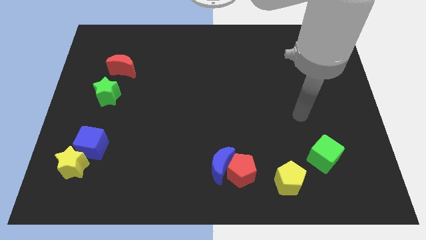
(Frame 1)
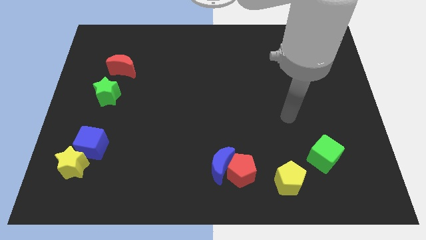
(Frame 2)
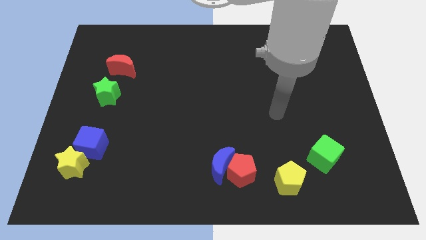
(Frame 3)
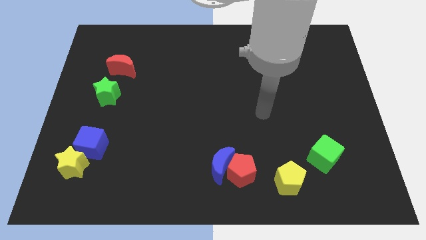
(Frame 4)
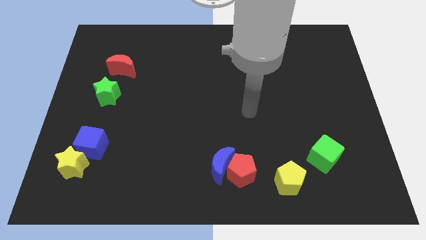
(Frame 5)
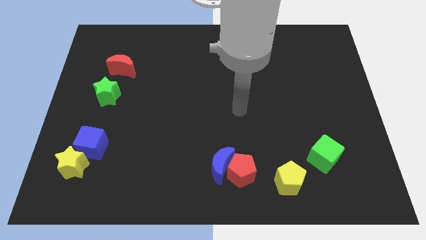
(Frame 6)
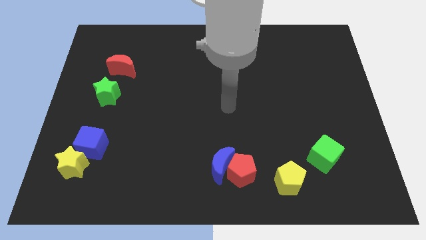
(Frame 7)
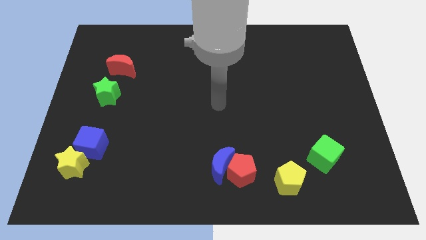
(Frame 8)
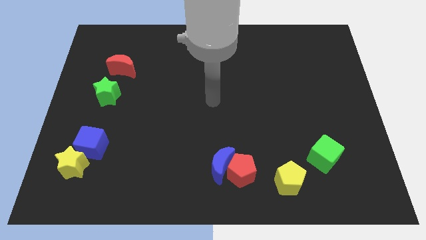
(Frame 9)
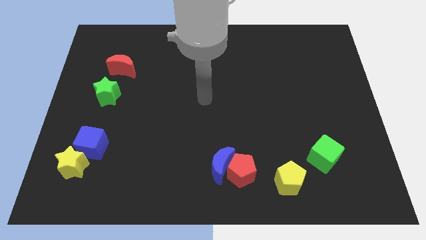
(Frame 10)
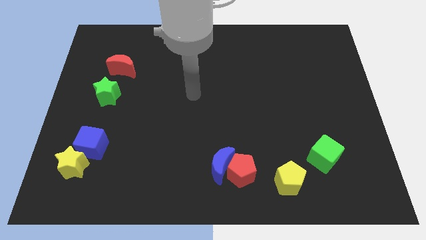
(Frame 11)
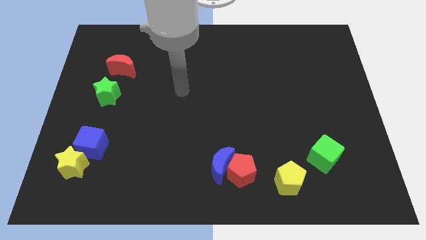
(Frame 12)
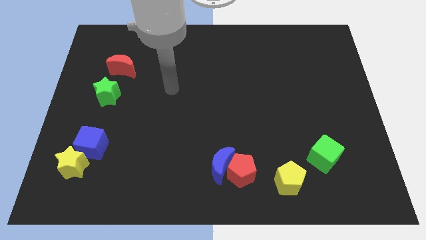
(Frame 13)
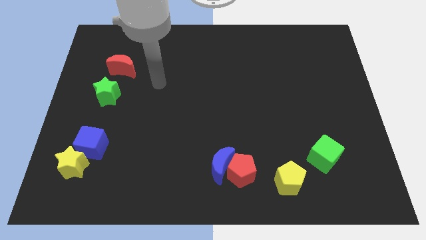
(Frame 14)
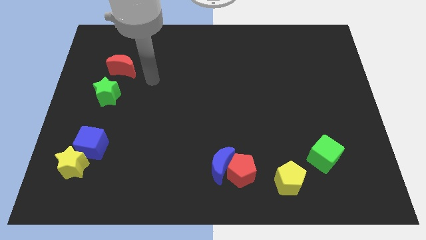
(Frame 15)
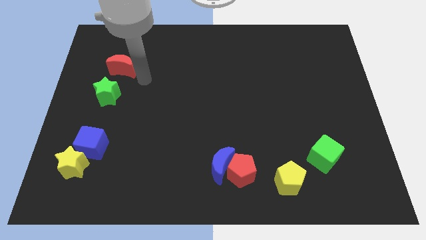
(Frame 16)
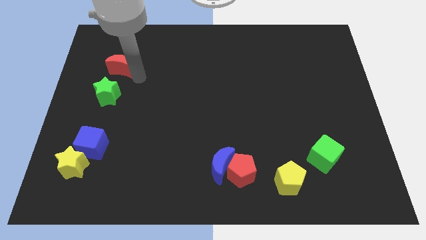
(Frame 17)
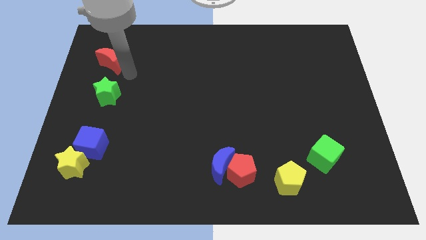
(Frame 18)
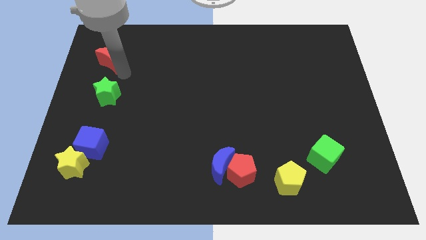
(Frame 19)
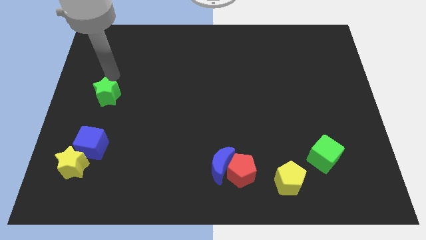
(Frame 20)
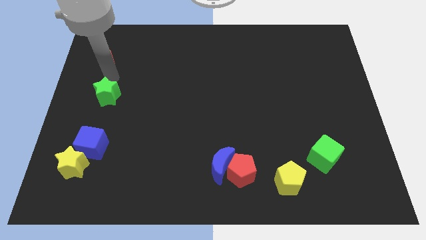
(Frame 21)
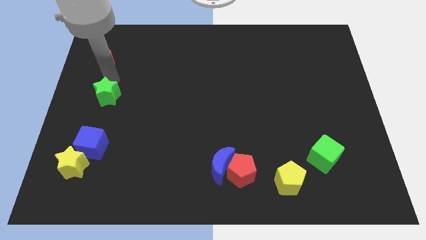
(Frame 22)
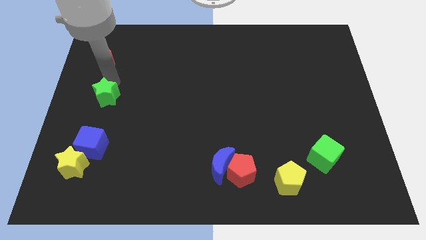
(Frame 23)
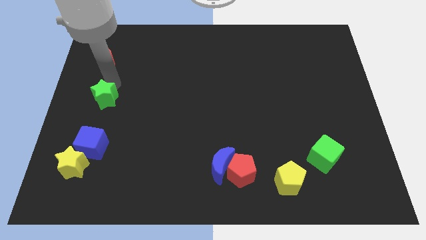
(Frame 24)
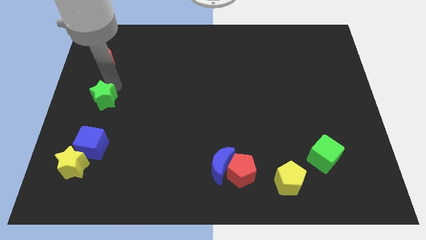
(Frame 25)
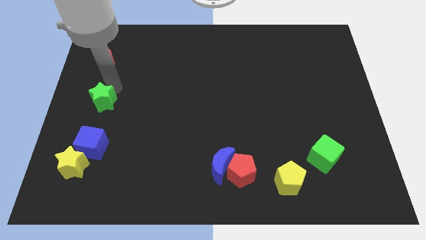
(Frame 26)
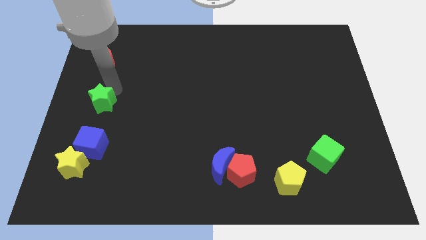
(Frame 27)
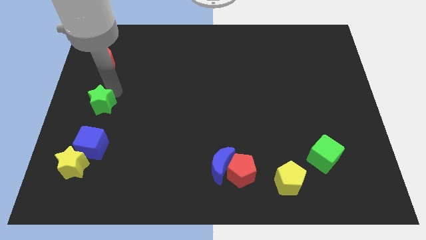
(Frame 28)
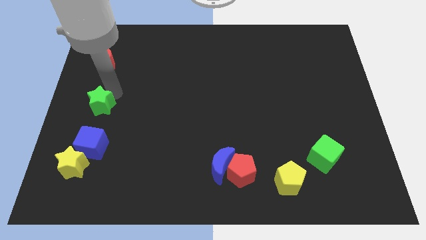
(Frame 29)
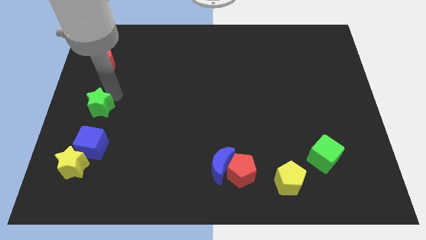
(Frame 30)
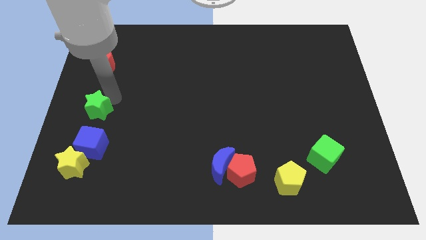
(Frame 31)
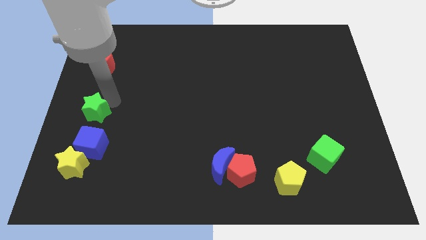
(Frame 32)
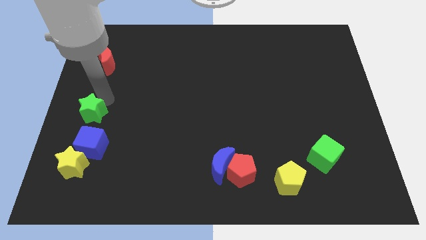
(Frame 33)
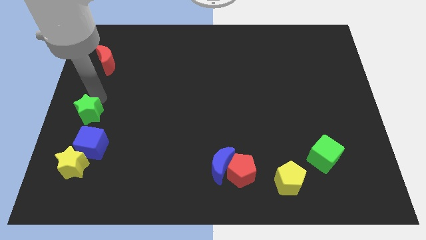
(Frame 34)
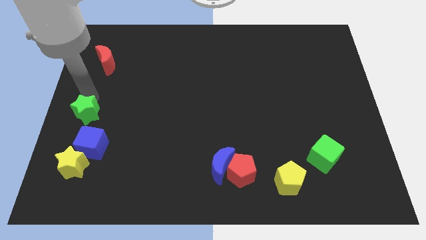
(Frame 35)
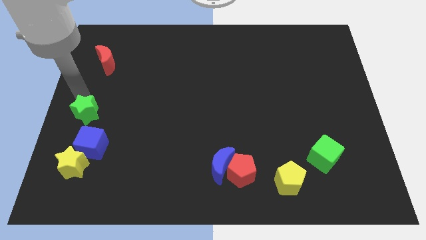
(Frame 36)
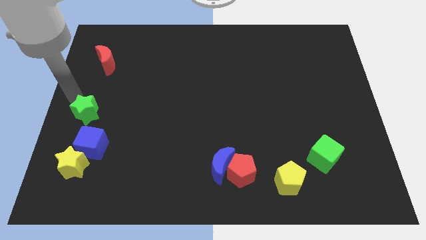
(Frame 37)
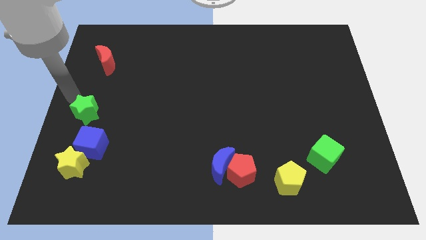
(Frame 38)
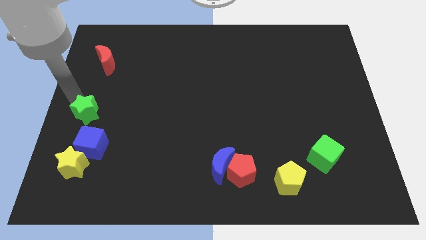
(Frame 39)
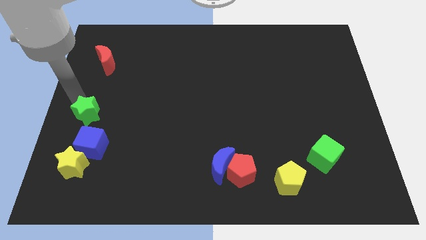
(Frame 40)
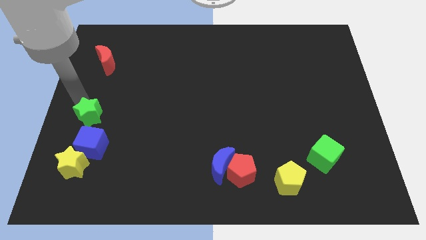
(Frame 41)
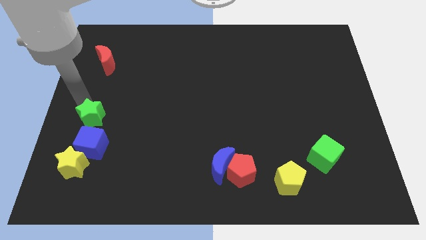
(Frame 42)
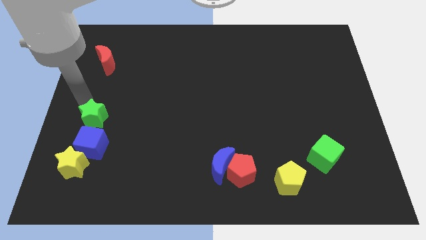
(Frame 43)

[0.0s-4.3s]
slightly push the green star down

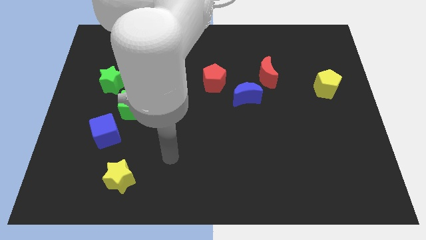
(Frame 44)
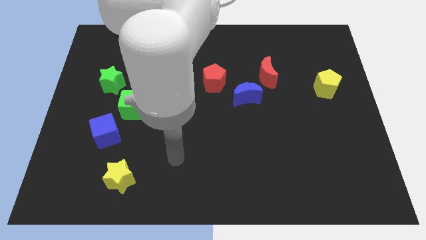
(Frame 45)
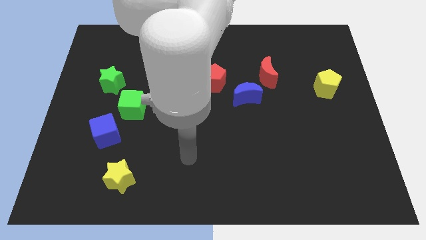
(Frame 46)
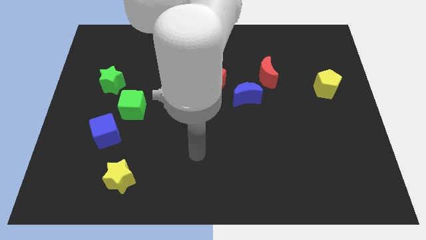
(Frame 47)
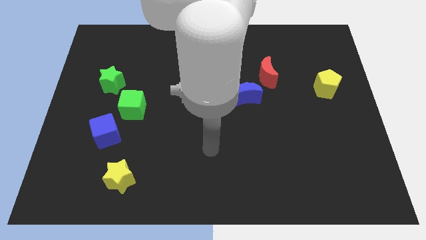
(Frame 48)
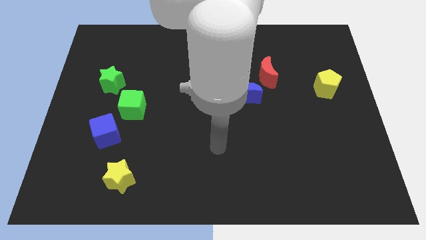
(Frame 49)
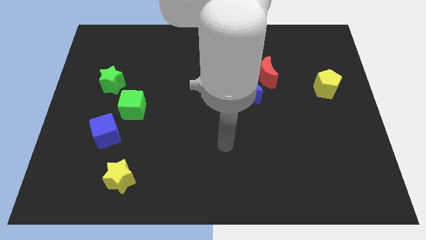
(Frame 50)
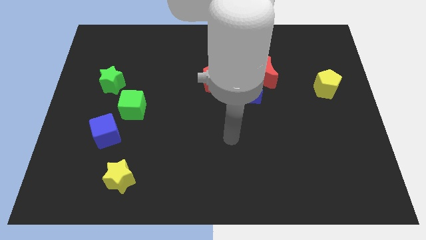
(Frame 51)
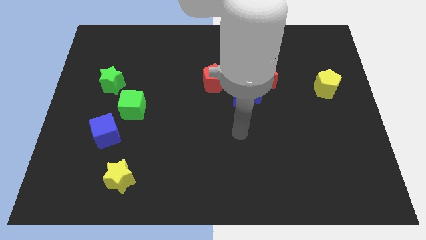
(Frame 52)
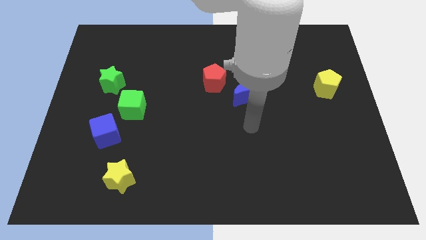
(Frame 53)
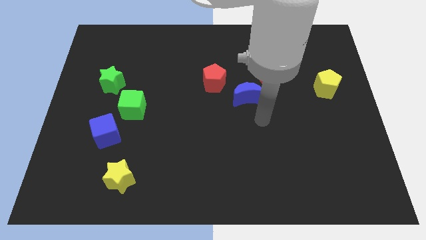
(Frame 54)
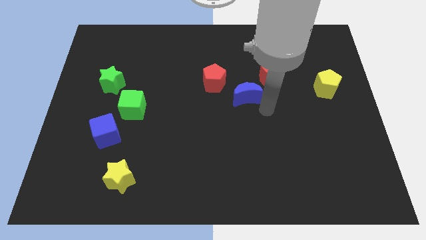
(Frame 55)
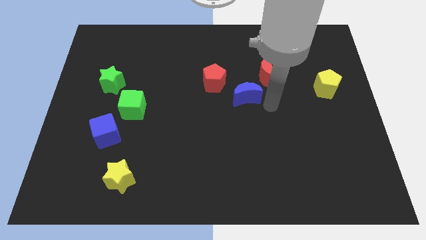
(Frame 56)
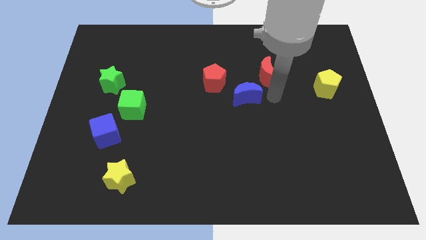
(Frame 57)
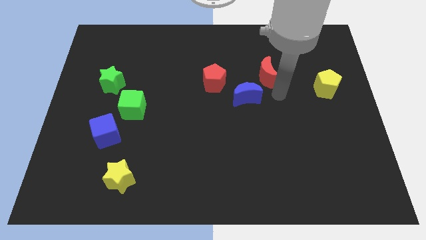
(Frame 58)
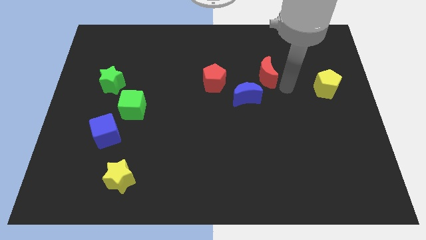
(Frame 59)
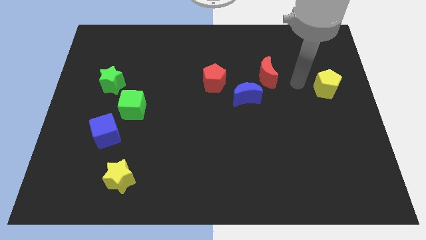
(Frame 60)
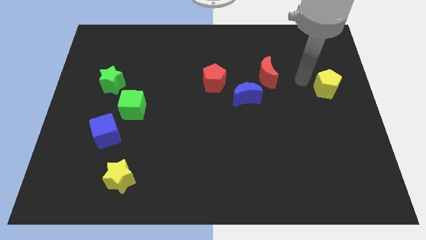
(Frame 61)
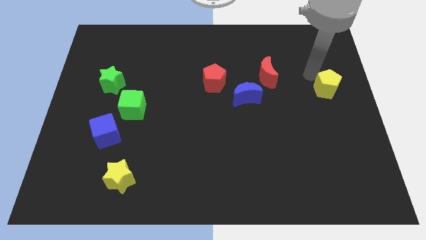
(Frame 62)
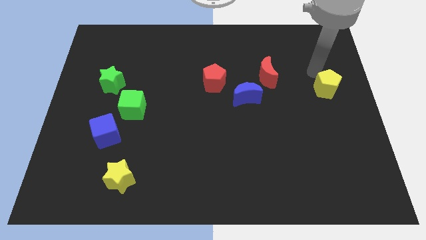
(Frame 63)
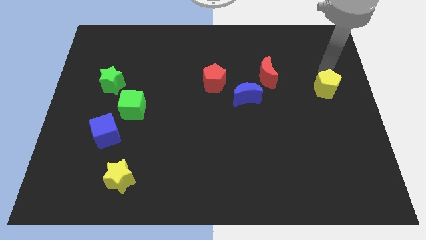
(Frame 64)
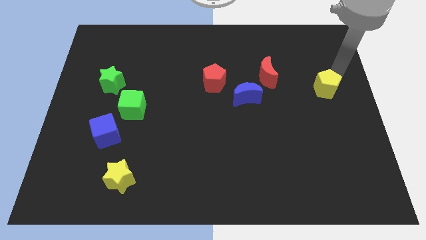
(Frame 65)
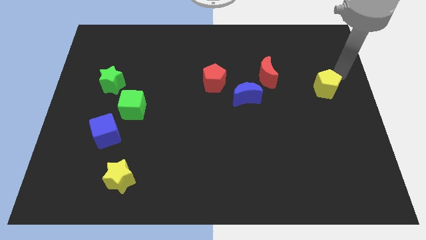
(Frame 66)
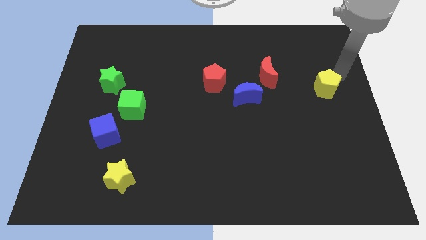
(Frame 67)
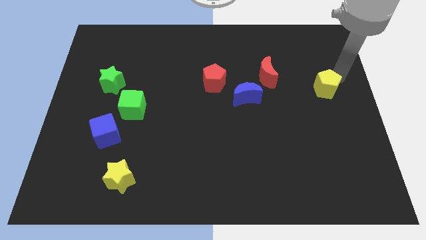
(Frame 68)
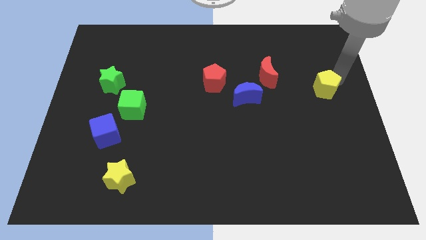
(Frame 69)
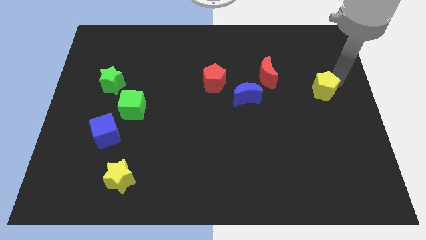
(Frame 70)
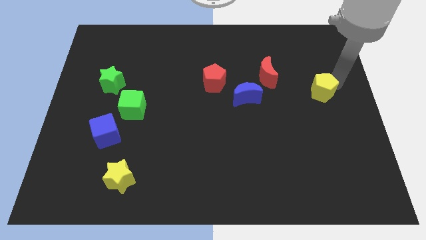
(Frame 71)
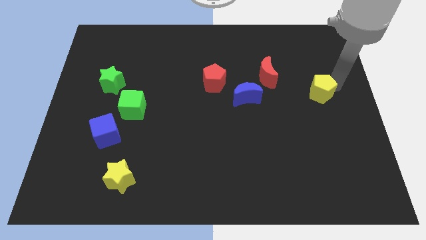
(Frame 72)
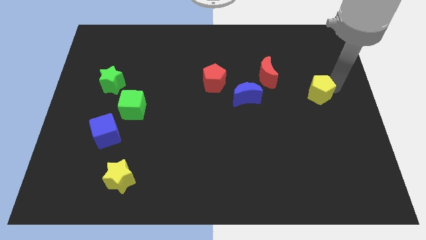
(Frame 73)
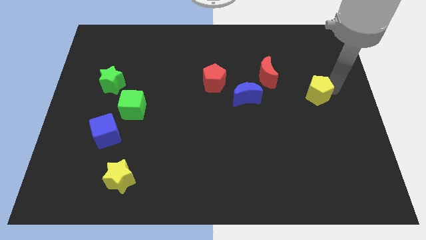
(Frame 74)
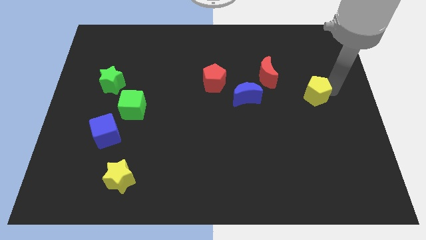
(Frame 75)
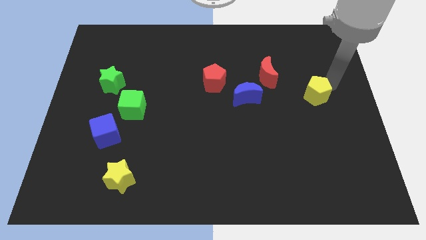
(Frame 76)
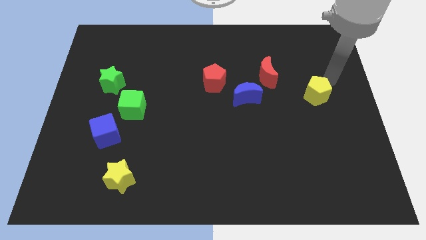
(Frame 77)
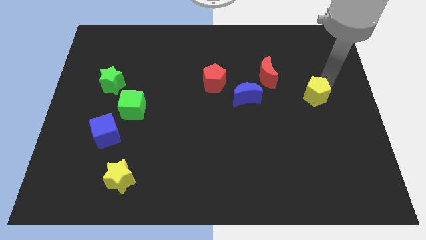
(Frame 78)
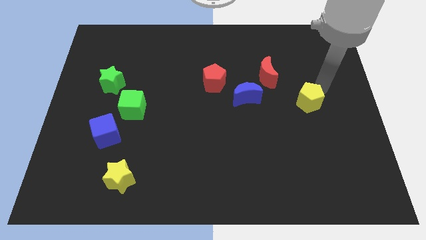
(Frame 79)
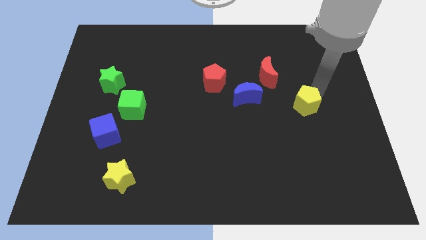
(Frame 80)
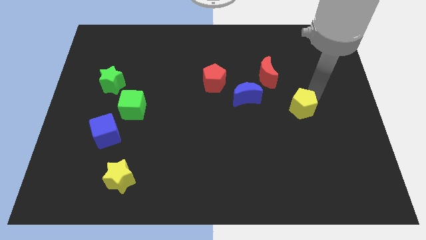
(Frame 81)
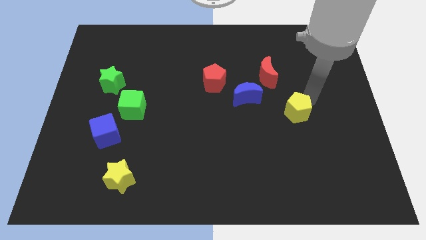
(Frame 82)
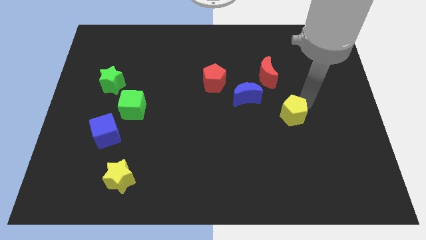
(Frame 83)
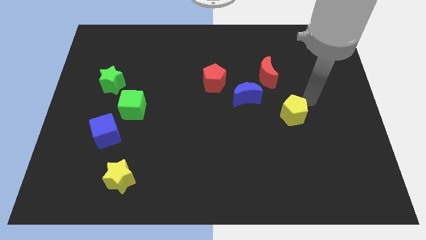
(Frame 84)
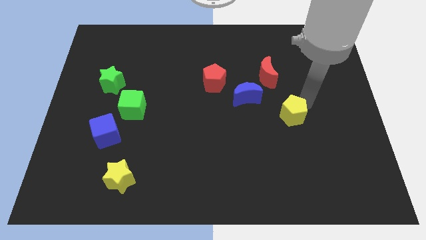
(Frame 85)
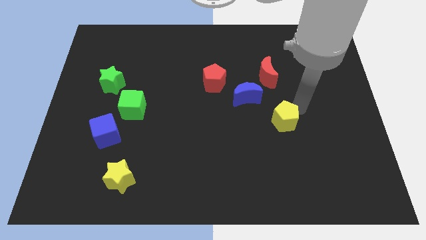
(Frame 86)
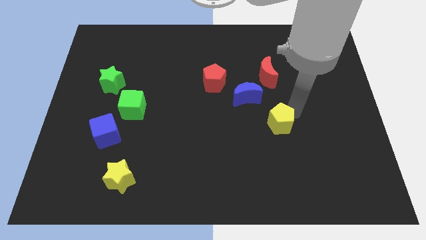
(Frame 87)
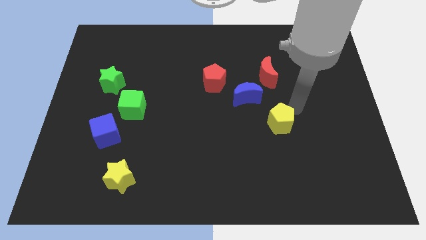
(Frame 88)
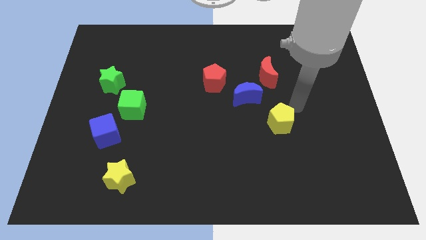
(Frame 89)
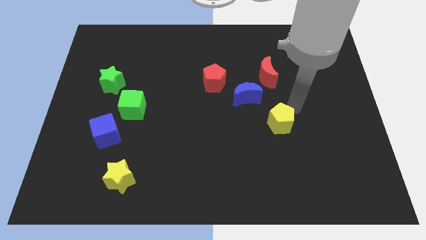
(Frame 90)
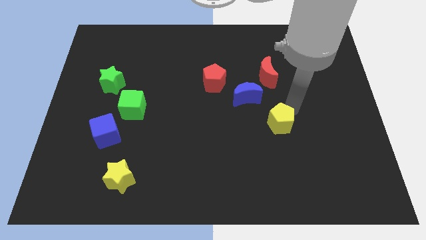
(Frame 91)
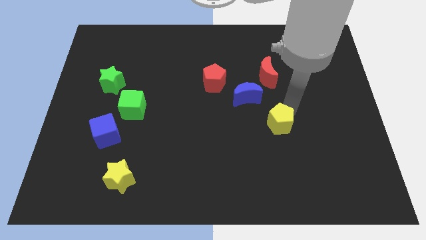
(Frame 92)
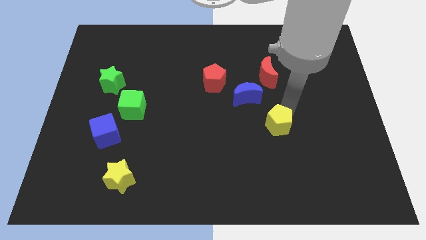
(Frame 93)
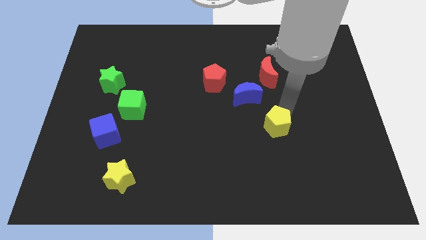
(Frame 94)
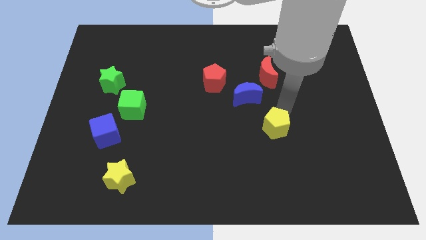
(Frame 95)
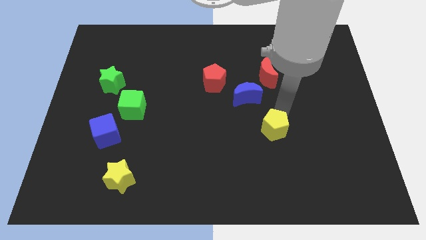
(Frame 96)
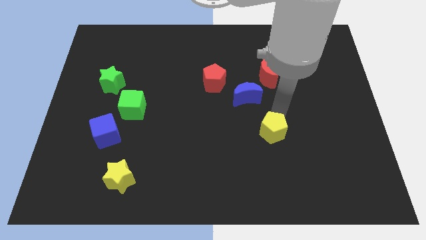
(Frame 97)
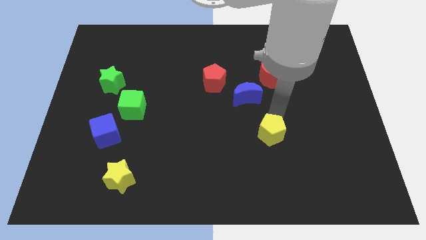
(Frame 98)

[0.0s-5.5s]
slide the yellow pentagon down and left
